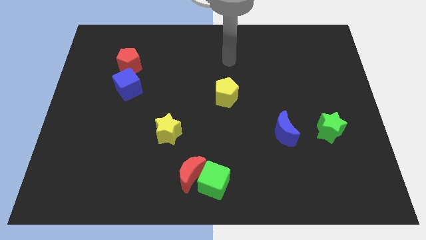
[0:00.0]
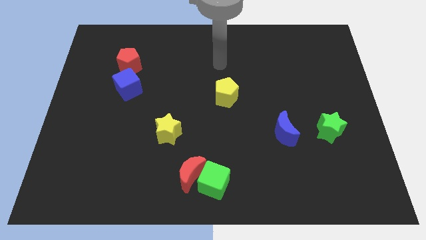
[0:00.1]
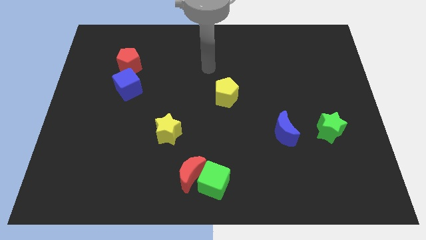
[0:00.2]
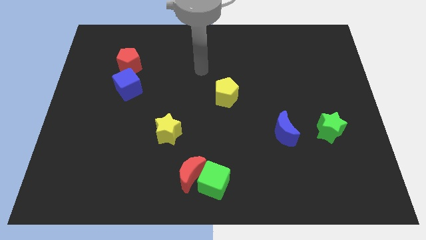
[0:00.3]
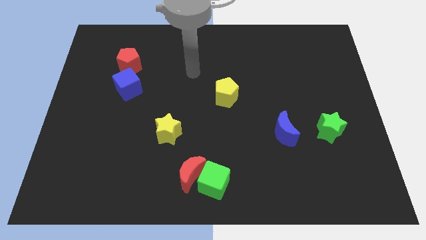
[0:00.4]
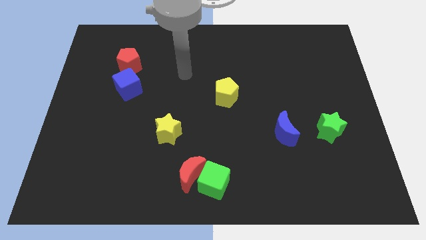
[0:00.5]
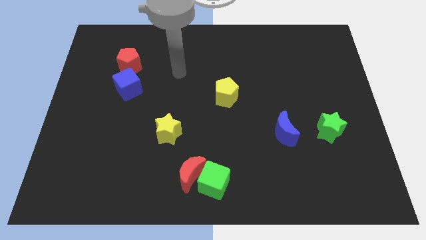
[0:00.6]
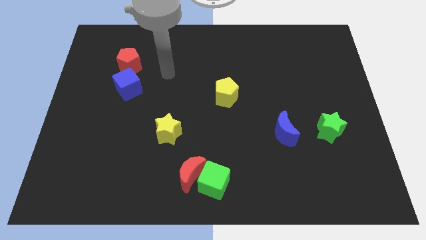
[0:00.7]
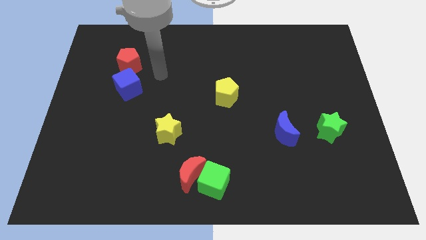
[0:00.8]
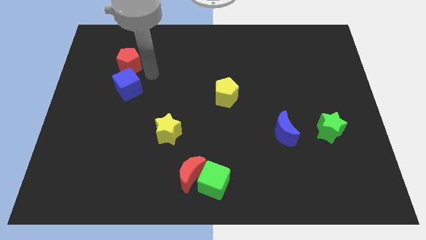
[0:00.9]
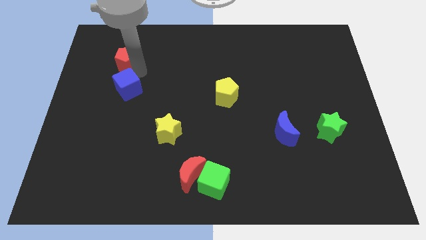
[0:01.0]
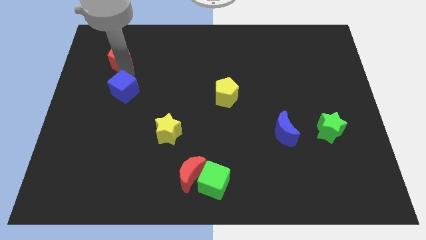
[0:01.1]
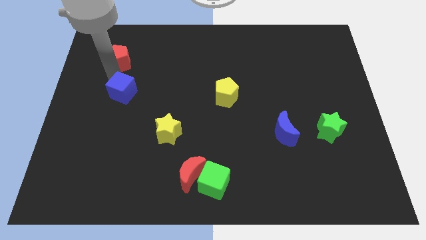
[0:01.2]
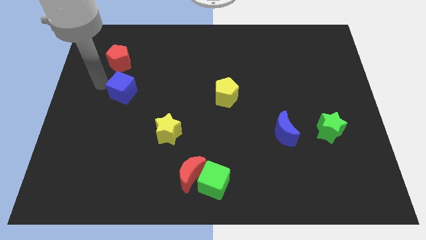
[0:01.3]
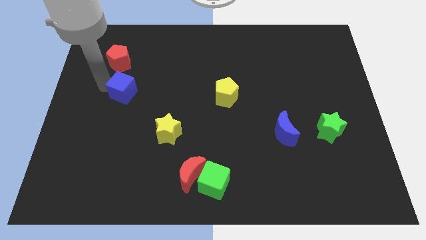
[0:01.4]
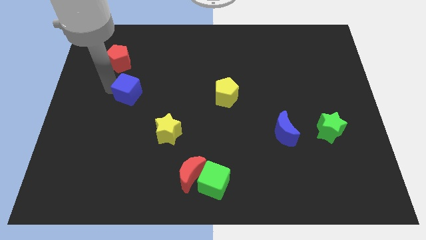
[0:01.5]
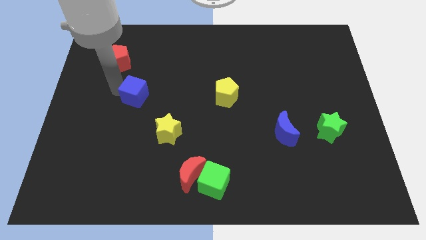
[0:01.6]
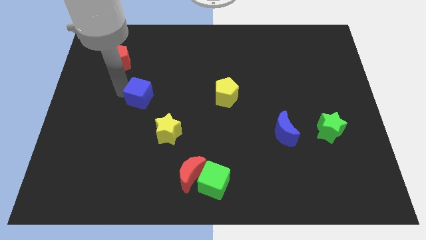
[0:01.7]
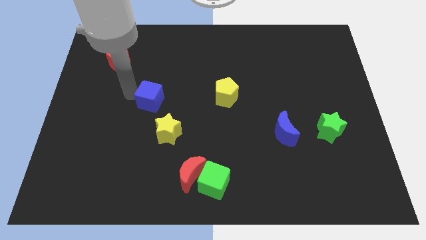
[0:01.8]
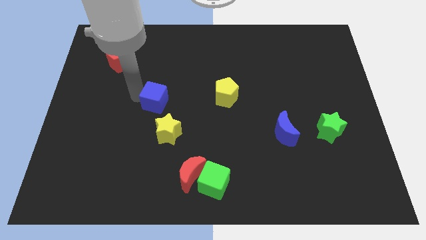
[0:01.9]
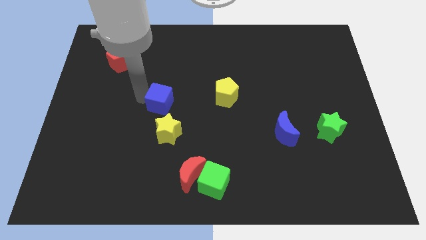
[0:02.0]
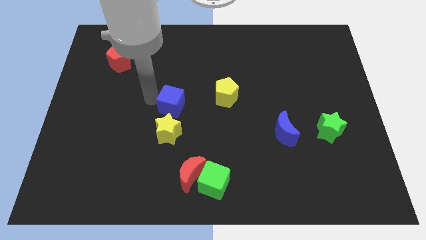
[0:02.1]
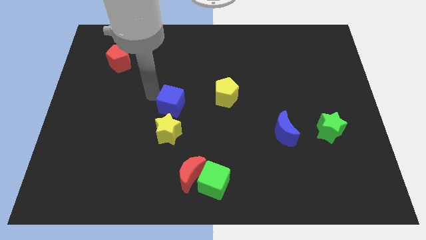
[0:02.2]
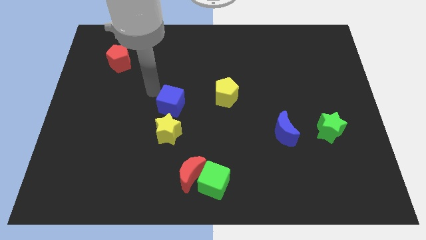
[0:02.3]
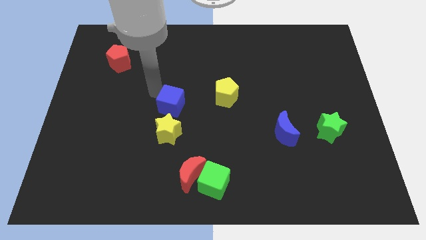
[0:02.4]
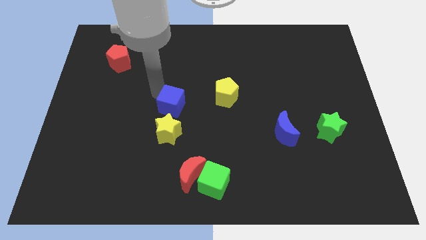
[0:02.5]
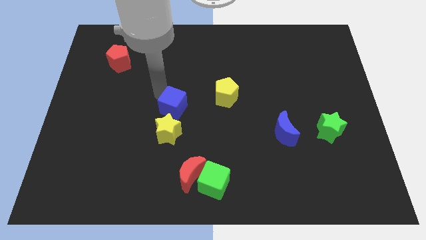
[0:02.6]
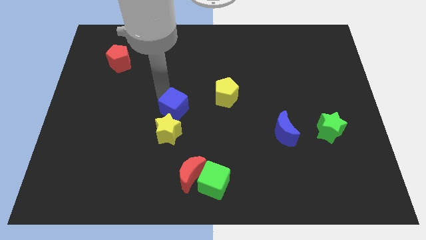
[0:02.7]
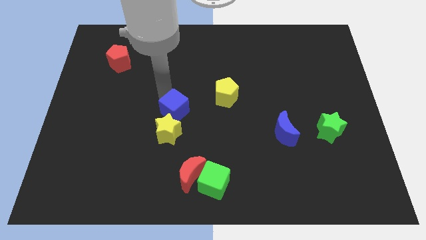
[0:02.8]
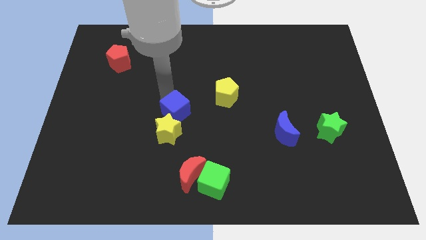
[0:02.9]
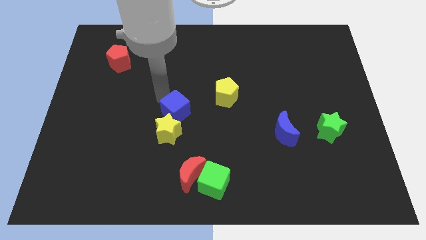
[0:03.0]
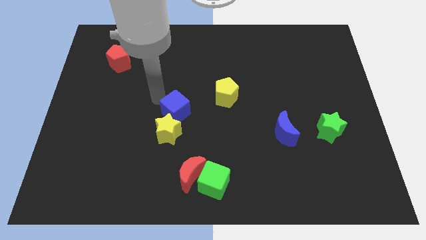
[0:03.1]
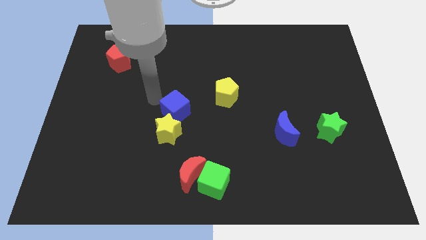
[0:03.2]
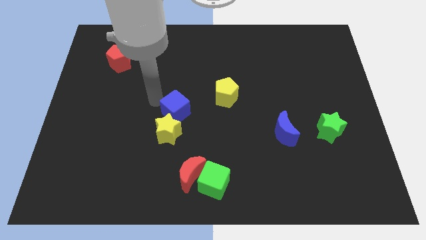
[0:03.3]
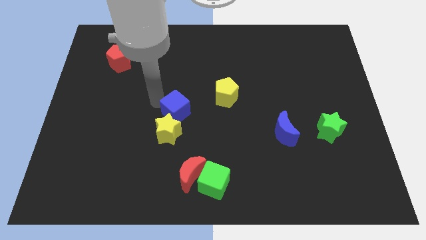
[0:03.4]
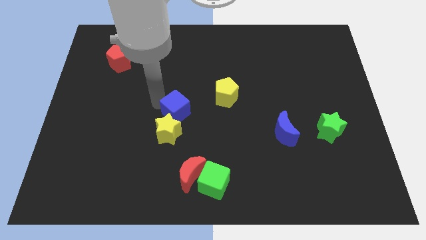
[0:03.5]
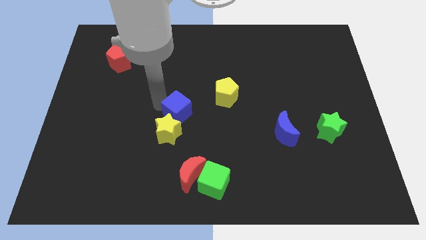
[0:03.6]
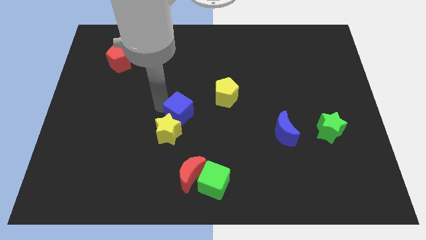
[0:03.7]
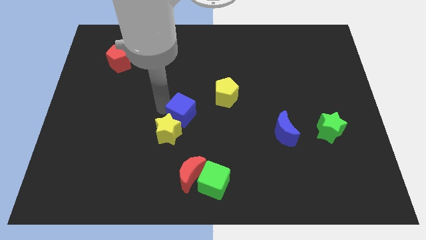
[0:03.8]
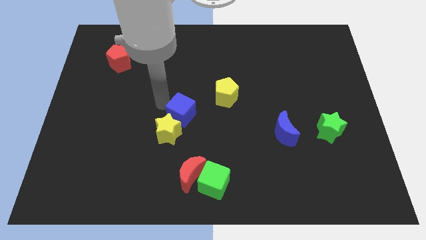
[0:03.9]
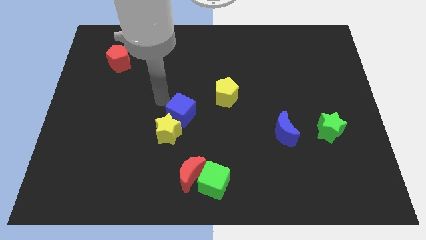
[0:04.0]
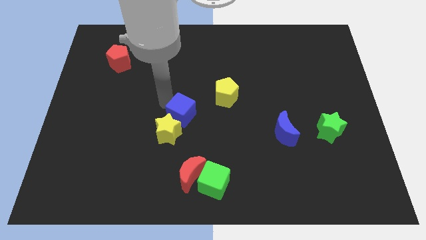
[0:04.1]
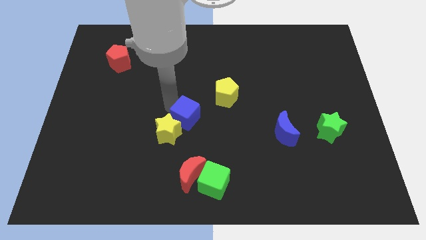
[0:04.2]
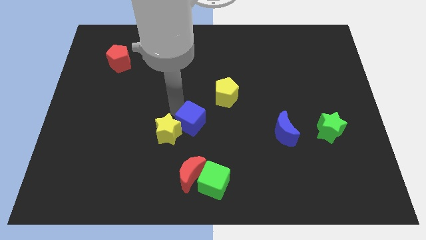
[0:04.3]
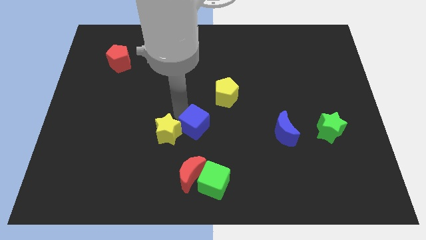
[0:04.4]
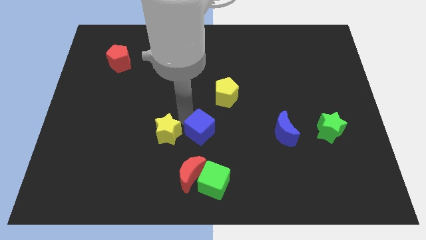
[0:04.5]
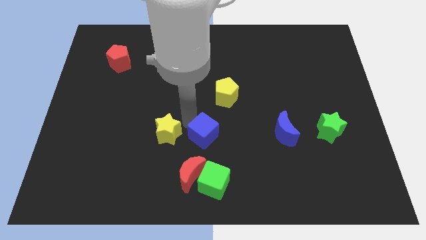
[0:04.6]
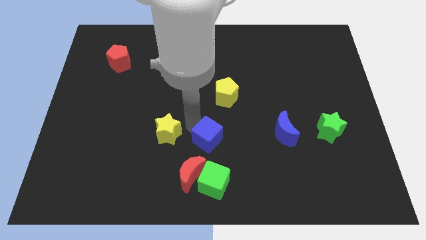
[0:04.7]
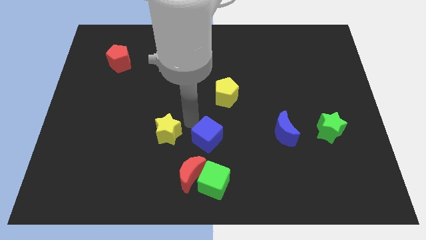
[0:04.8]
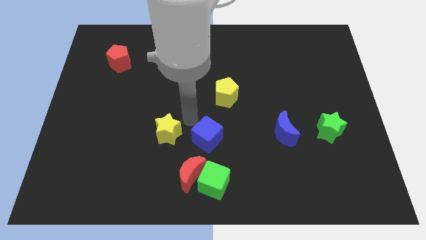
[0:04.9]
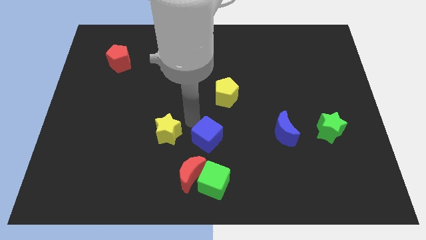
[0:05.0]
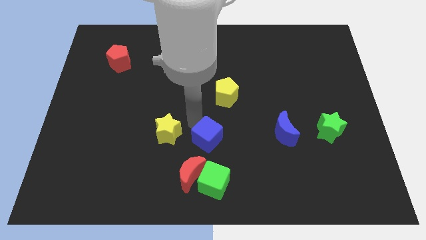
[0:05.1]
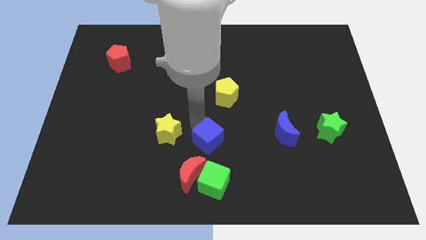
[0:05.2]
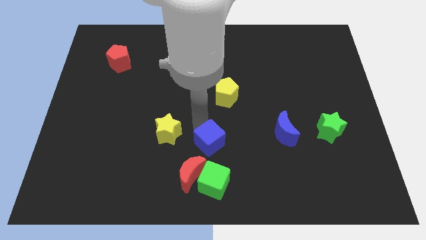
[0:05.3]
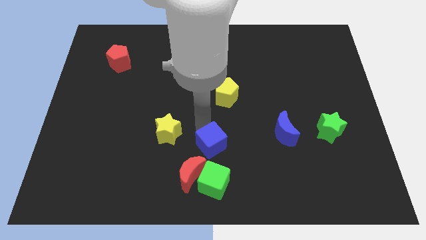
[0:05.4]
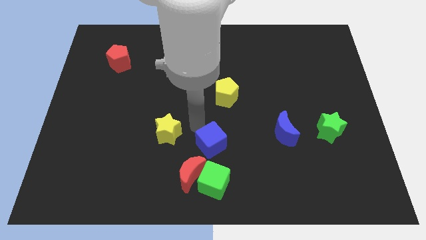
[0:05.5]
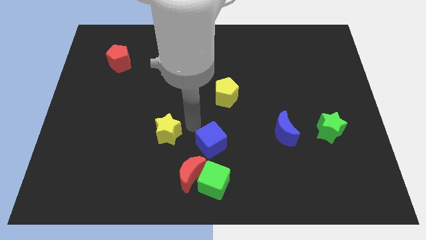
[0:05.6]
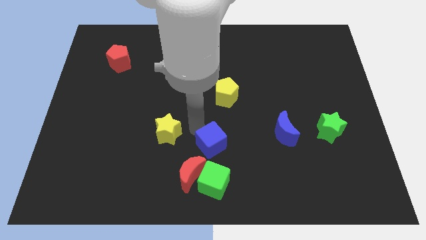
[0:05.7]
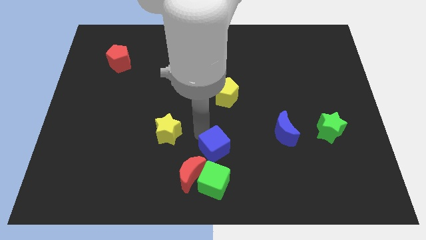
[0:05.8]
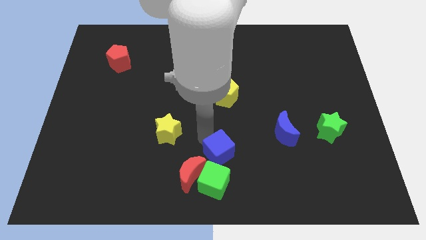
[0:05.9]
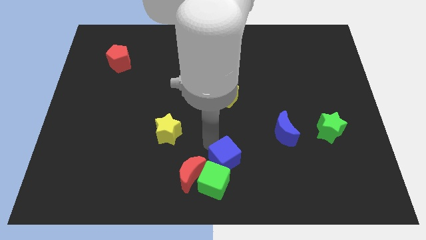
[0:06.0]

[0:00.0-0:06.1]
move the blue cube just right of the red moon

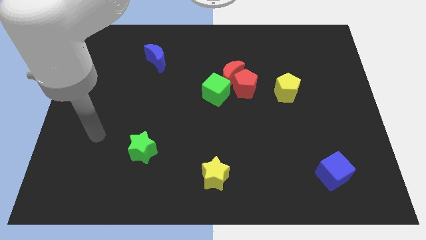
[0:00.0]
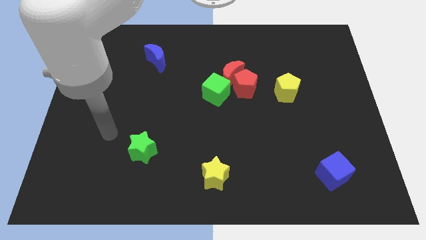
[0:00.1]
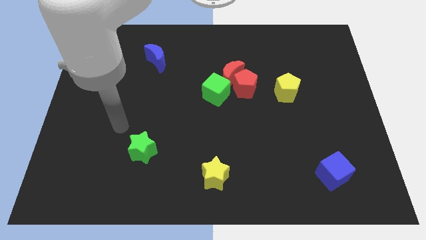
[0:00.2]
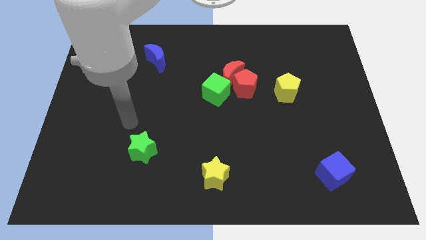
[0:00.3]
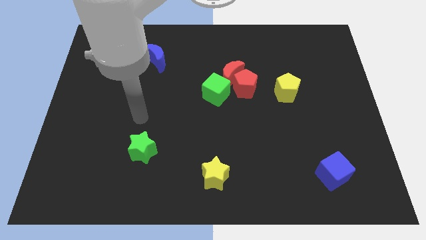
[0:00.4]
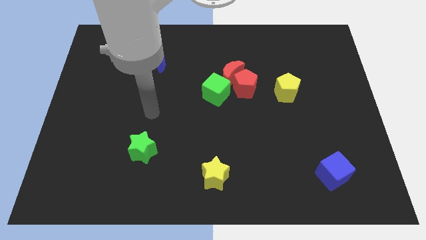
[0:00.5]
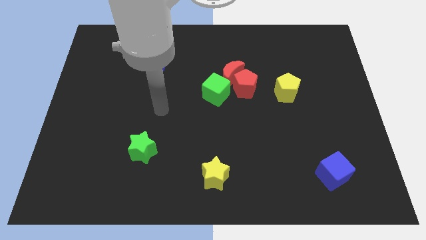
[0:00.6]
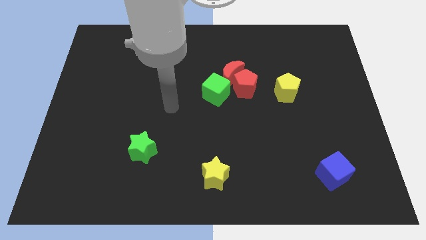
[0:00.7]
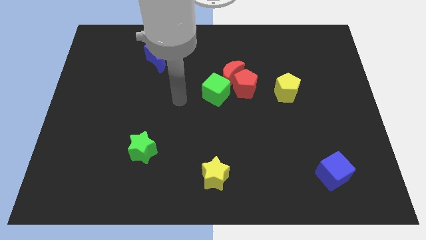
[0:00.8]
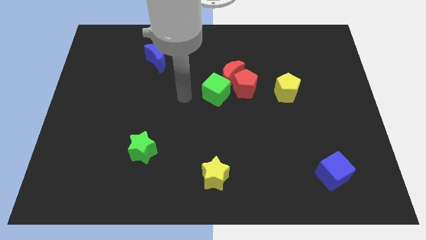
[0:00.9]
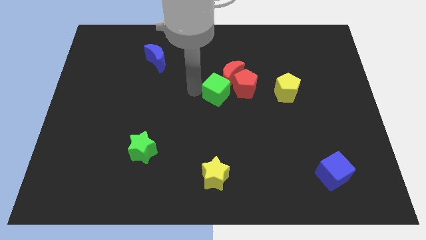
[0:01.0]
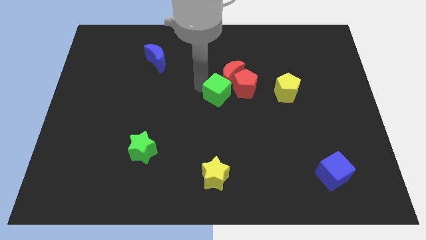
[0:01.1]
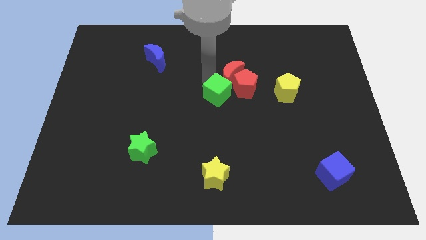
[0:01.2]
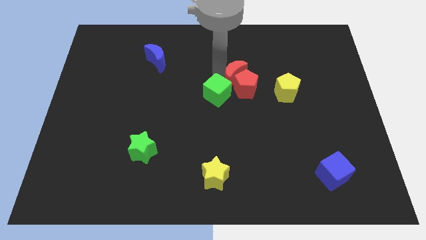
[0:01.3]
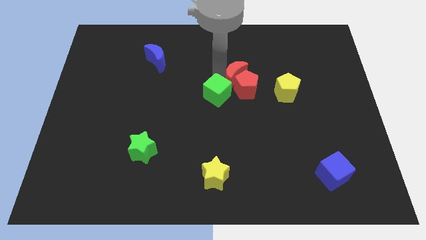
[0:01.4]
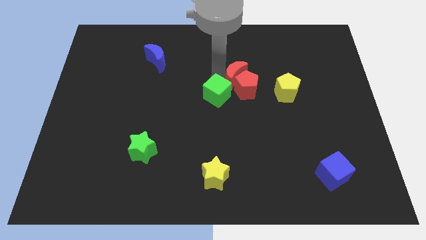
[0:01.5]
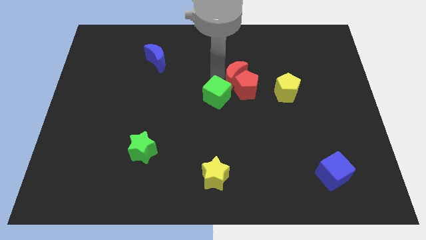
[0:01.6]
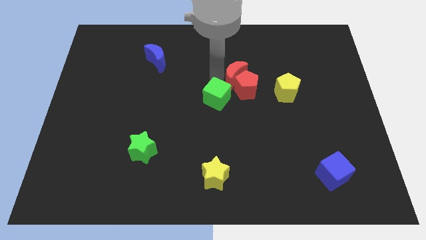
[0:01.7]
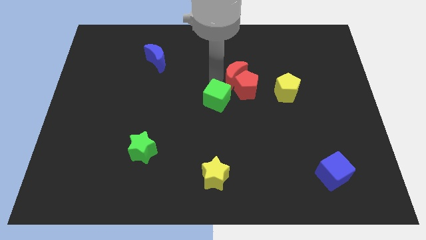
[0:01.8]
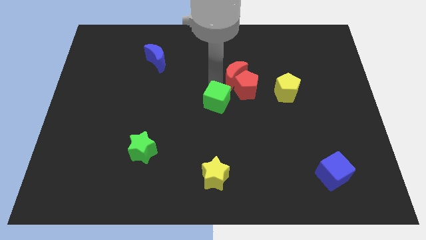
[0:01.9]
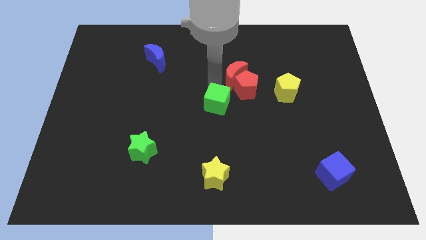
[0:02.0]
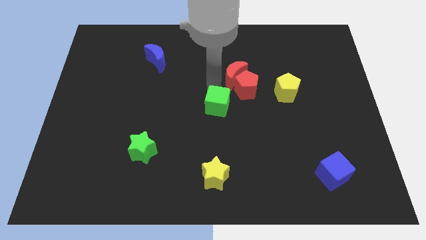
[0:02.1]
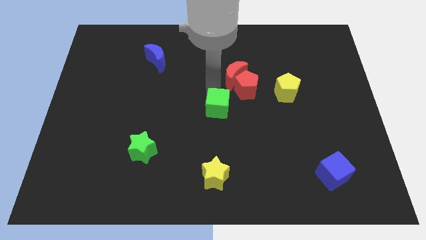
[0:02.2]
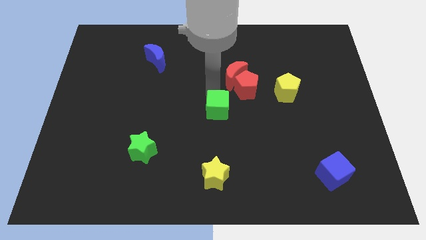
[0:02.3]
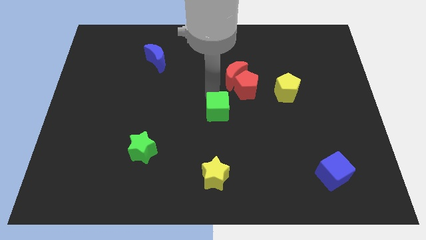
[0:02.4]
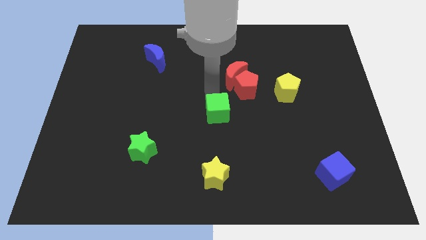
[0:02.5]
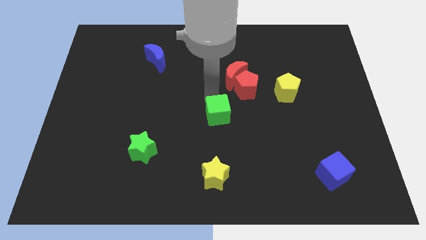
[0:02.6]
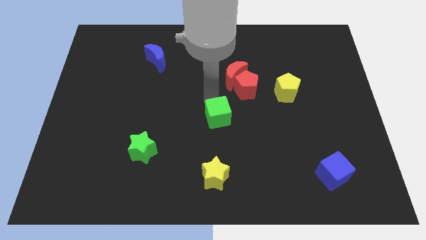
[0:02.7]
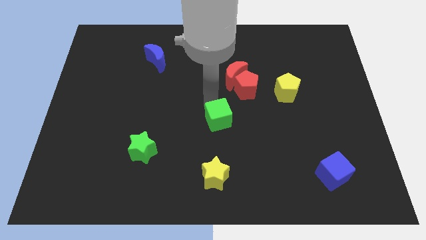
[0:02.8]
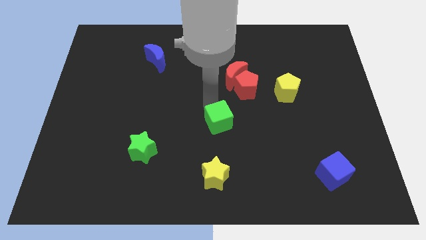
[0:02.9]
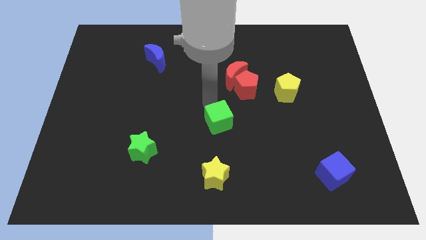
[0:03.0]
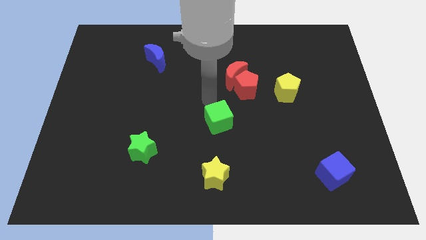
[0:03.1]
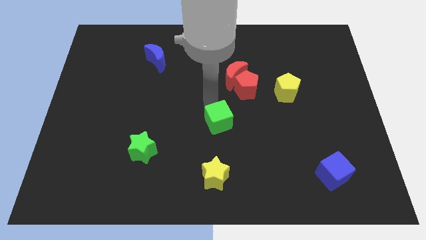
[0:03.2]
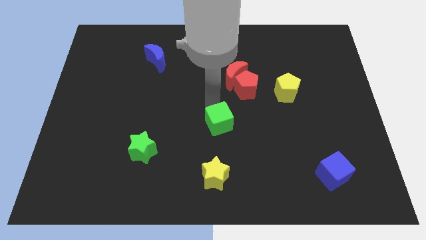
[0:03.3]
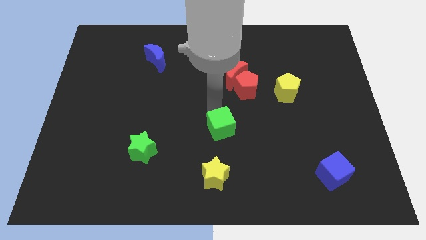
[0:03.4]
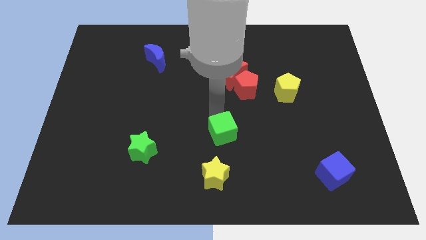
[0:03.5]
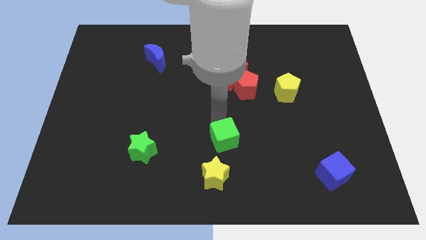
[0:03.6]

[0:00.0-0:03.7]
slide the green cube to the top right of the yellow star
